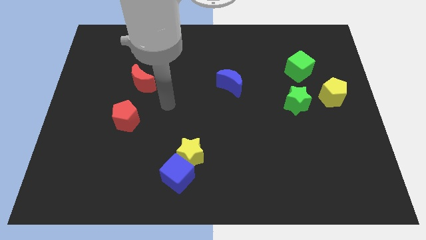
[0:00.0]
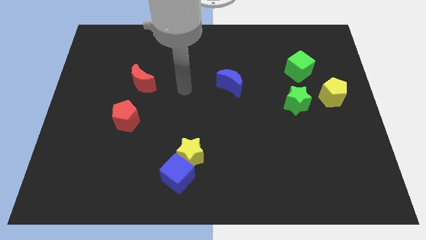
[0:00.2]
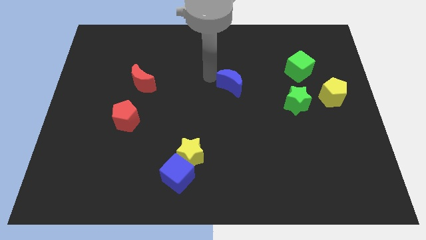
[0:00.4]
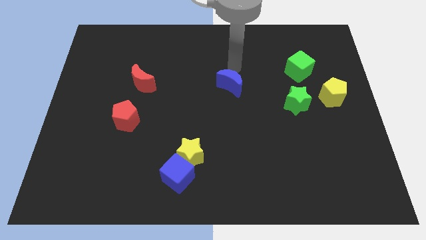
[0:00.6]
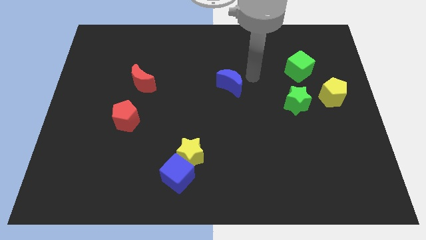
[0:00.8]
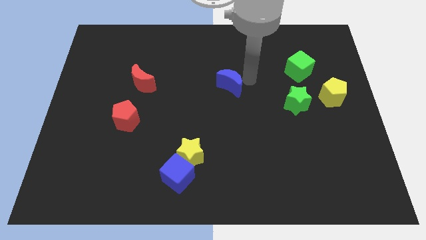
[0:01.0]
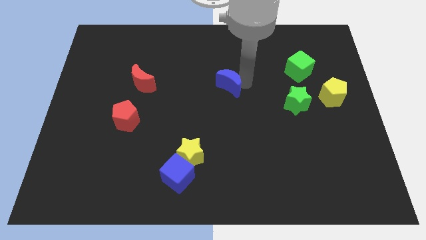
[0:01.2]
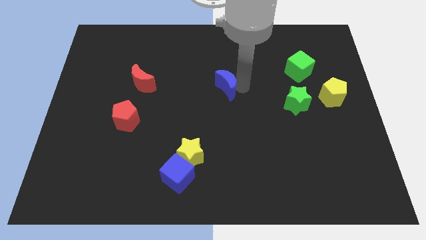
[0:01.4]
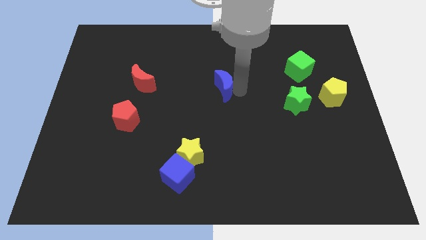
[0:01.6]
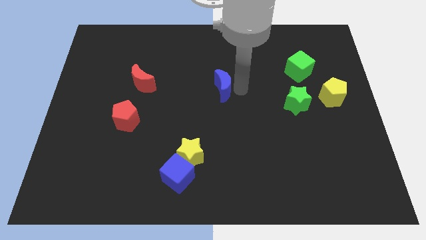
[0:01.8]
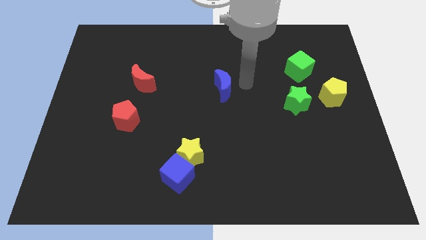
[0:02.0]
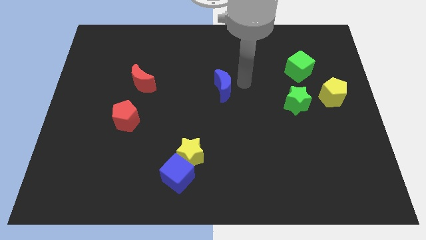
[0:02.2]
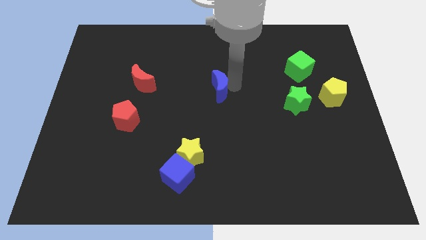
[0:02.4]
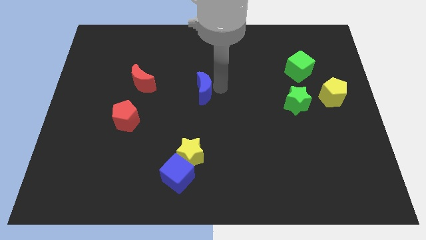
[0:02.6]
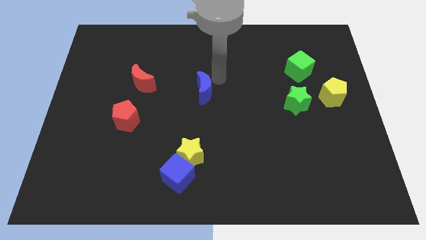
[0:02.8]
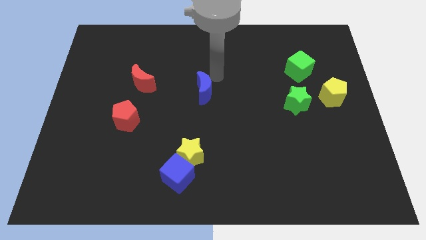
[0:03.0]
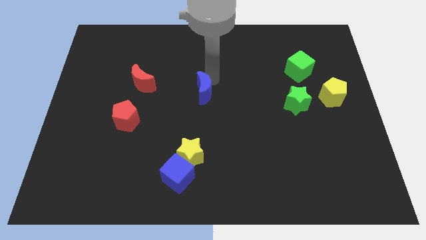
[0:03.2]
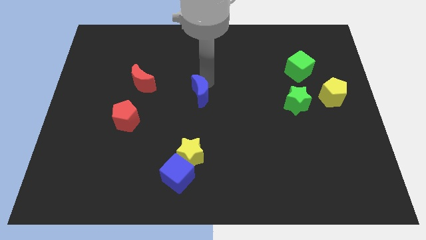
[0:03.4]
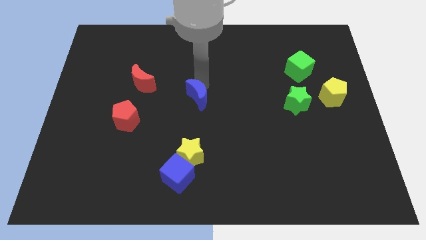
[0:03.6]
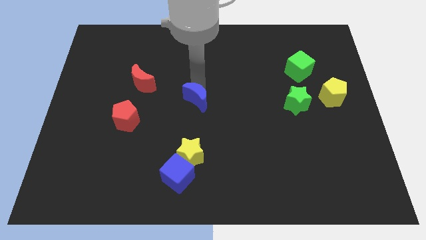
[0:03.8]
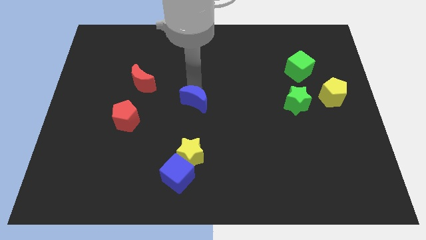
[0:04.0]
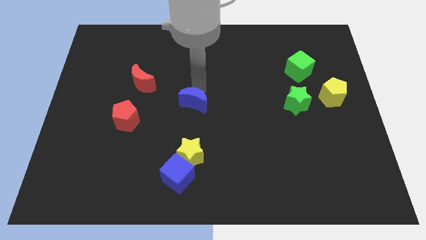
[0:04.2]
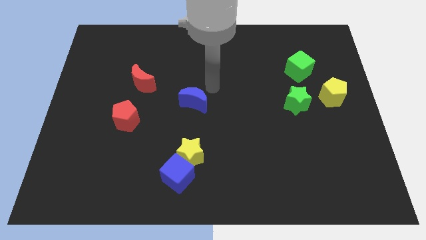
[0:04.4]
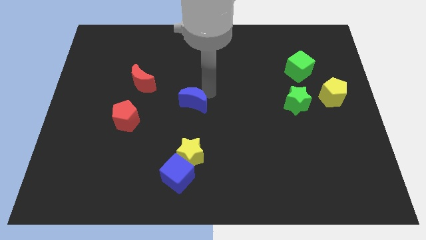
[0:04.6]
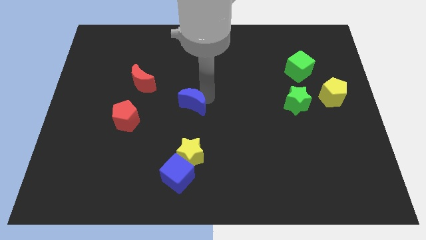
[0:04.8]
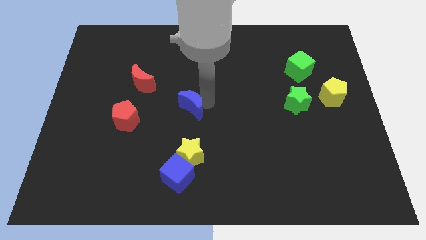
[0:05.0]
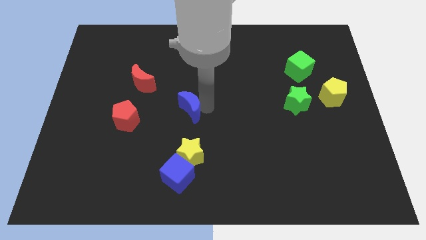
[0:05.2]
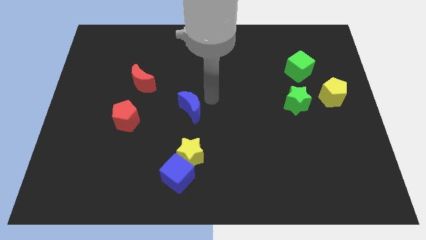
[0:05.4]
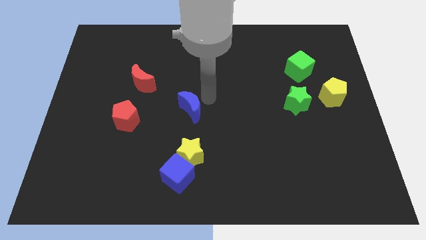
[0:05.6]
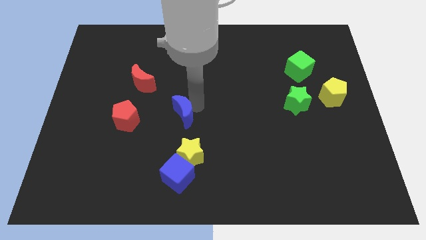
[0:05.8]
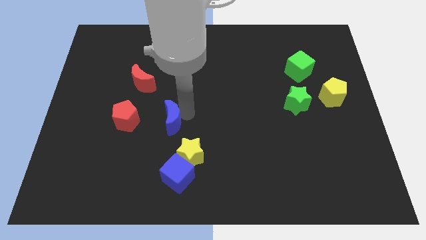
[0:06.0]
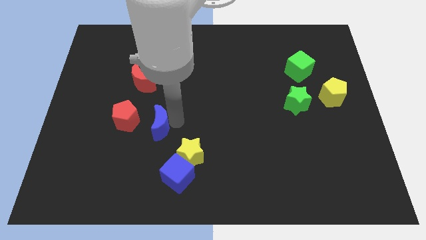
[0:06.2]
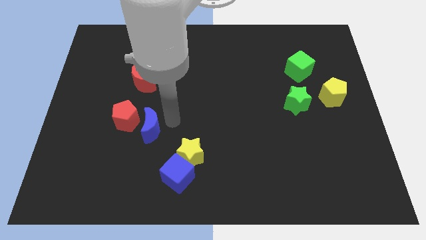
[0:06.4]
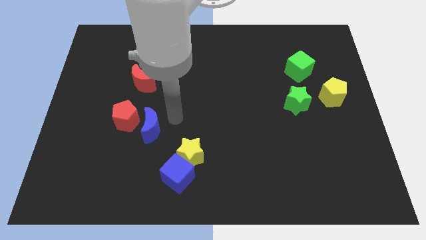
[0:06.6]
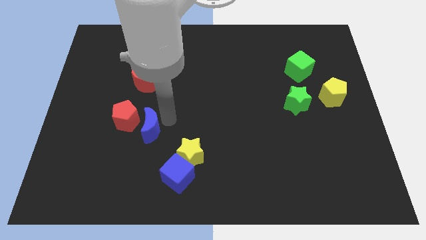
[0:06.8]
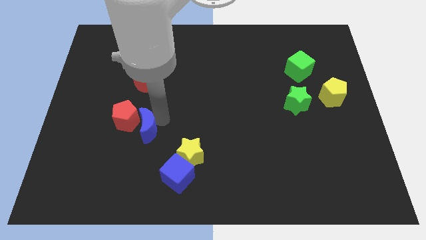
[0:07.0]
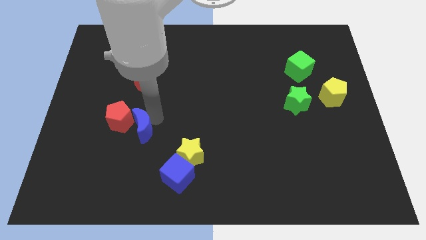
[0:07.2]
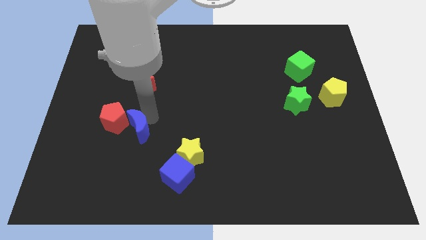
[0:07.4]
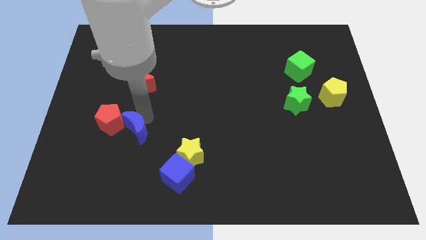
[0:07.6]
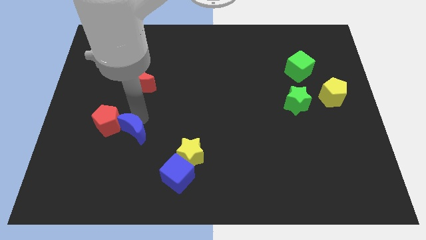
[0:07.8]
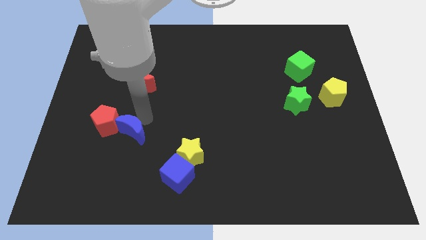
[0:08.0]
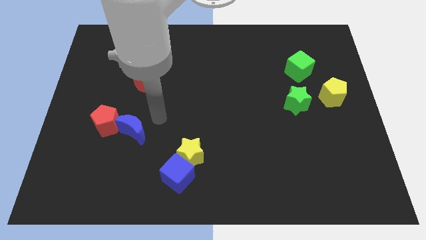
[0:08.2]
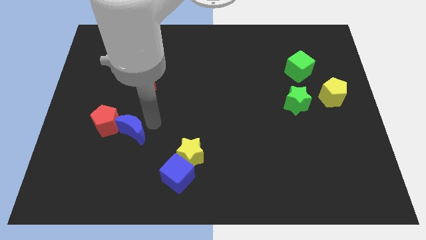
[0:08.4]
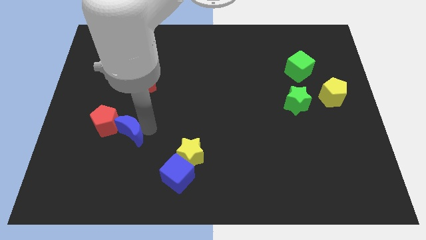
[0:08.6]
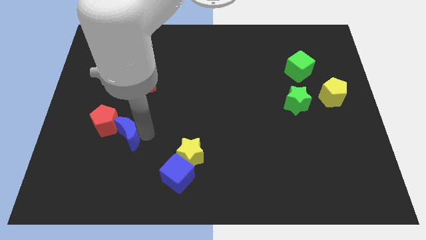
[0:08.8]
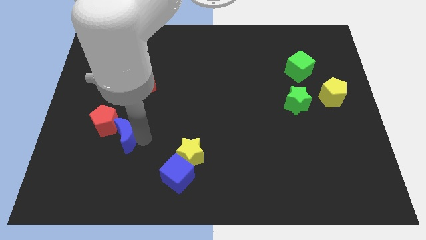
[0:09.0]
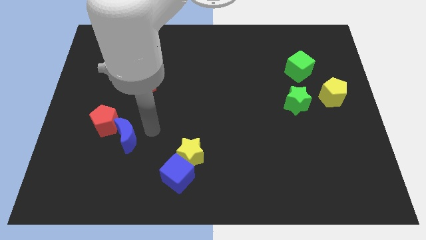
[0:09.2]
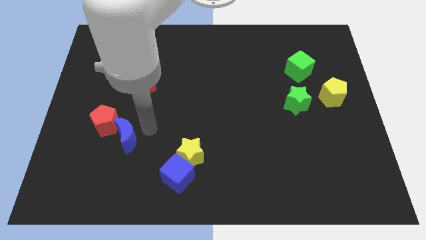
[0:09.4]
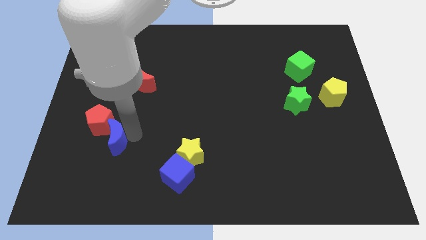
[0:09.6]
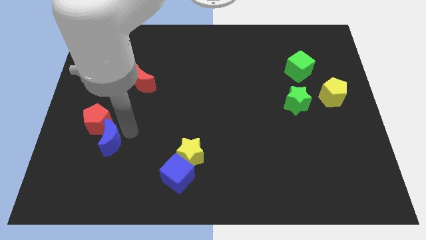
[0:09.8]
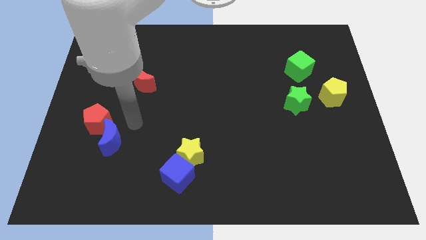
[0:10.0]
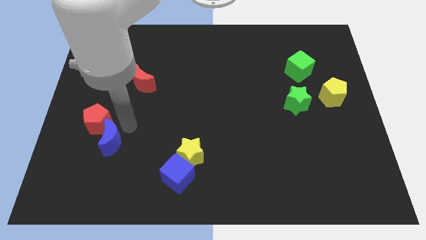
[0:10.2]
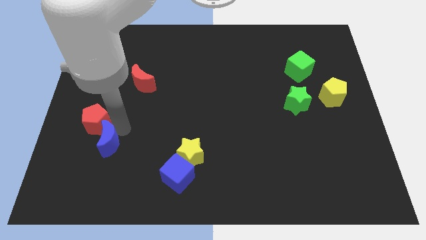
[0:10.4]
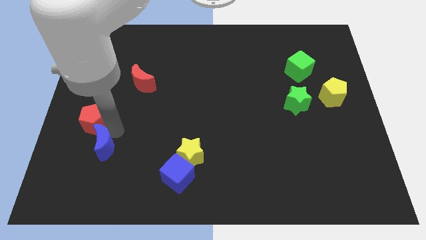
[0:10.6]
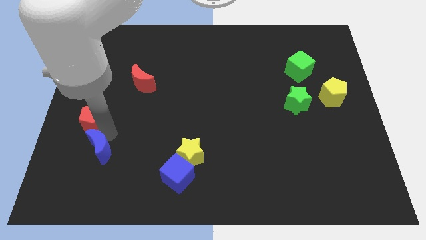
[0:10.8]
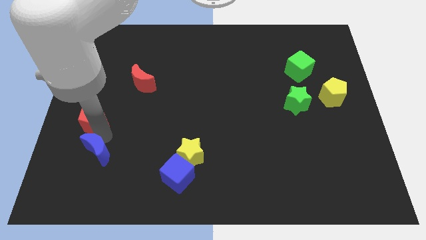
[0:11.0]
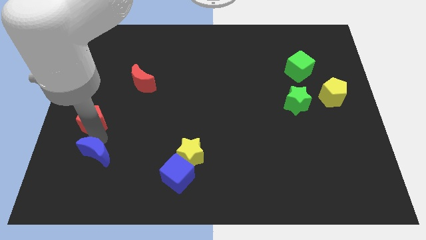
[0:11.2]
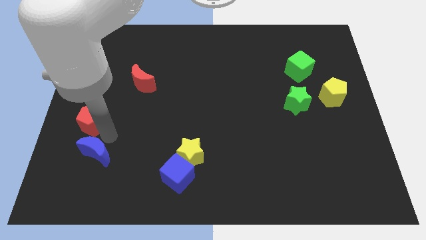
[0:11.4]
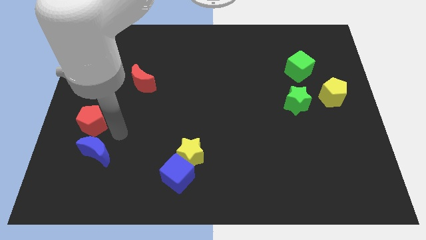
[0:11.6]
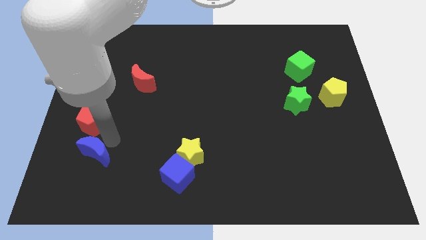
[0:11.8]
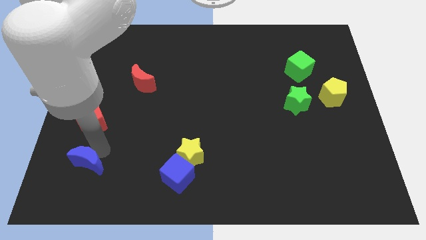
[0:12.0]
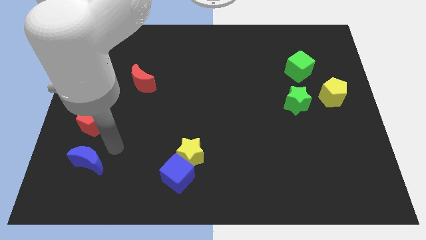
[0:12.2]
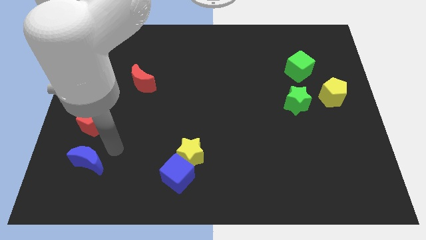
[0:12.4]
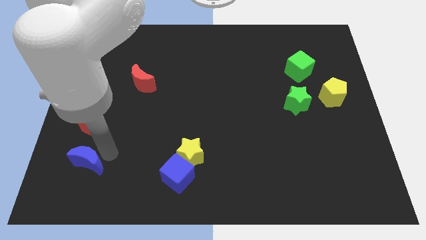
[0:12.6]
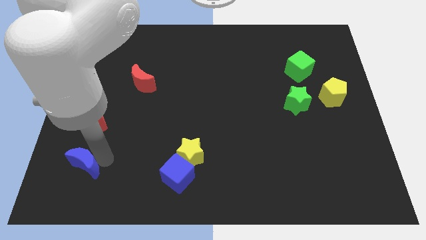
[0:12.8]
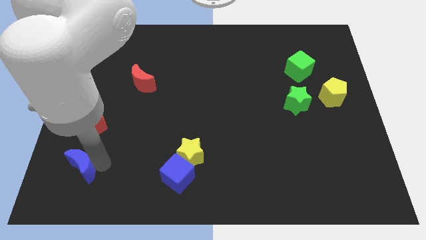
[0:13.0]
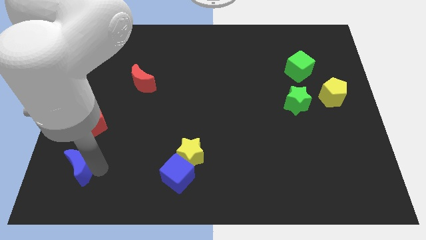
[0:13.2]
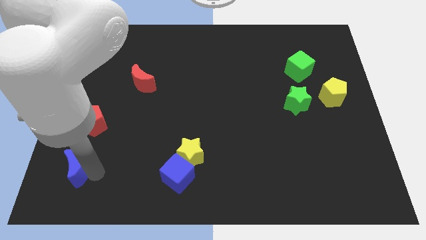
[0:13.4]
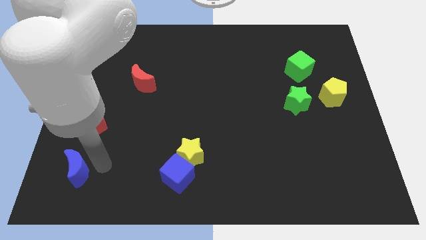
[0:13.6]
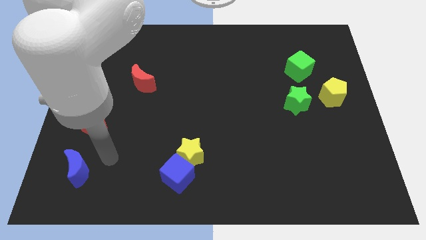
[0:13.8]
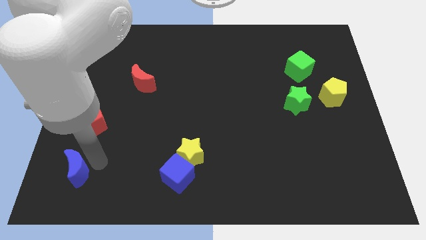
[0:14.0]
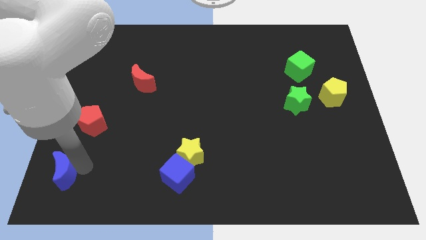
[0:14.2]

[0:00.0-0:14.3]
move the blue moon to the bottom left
